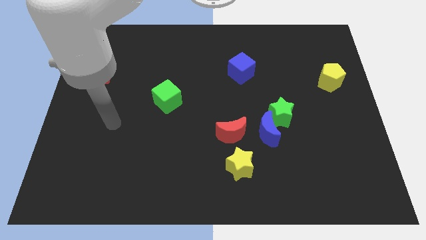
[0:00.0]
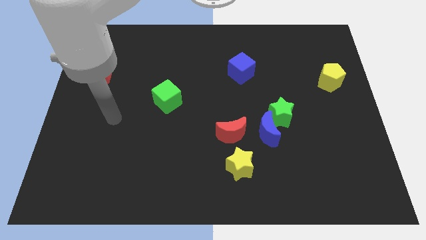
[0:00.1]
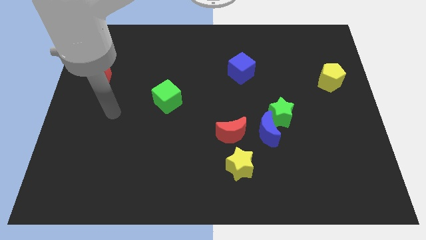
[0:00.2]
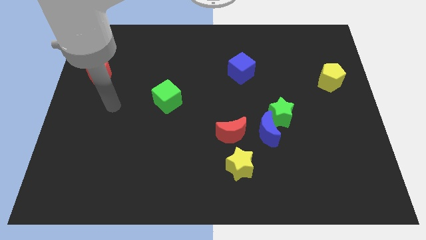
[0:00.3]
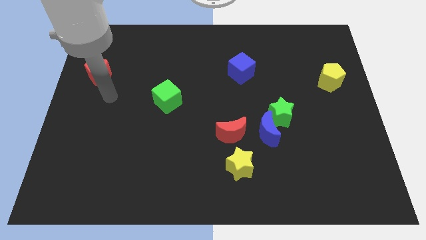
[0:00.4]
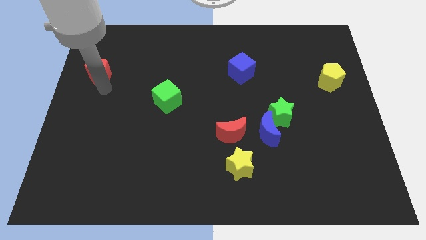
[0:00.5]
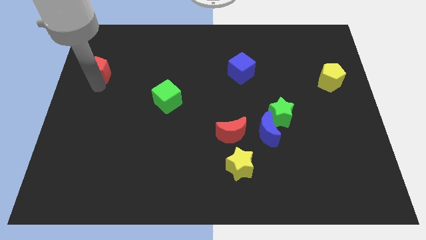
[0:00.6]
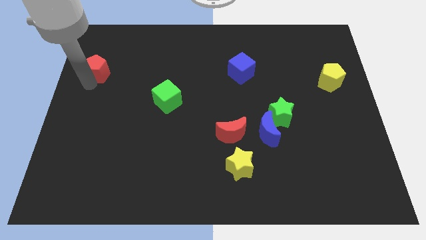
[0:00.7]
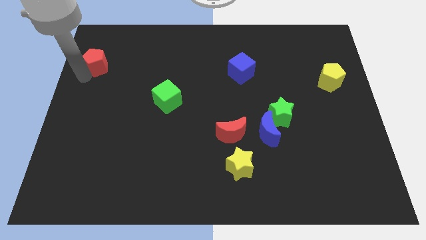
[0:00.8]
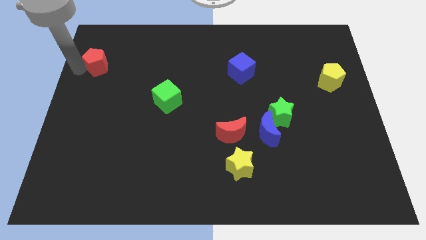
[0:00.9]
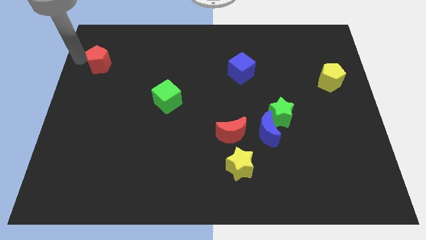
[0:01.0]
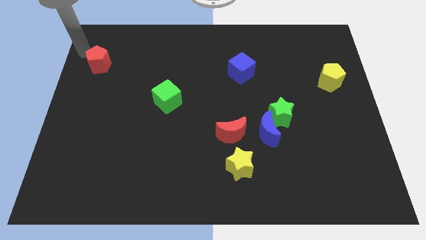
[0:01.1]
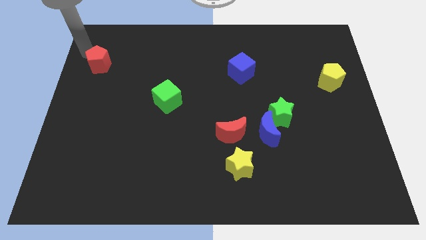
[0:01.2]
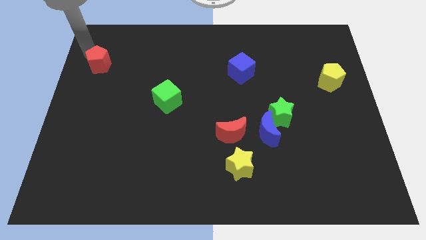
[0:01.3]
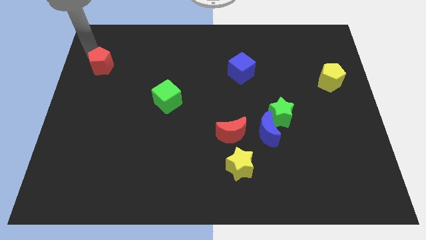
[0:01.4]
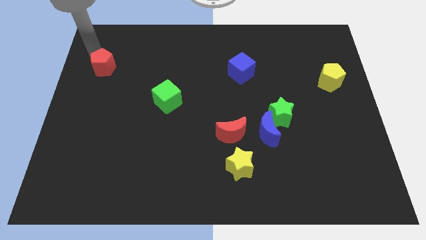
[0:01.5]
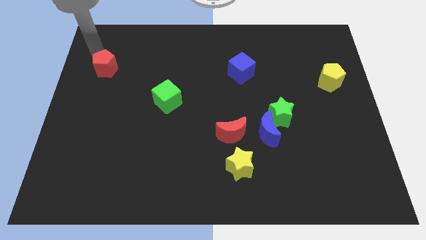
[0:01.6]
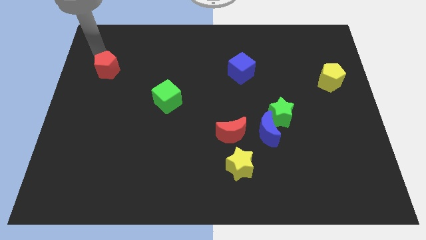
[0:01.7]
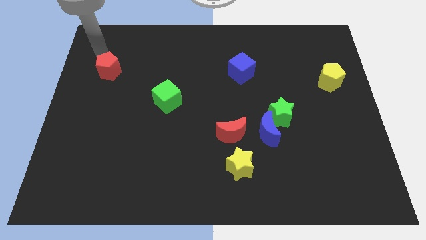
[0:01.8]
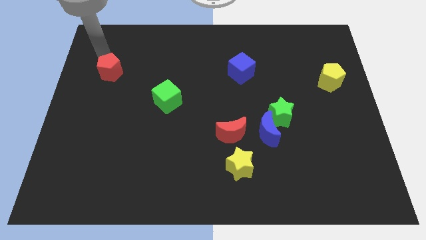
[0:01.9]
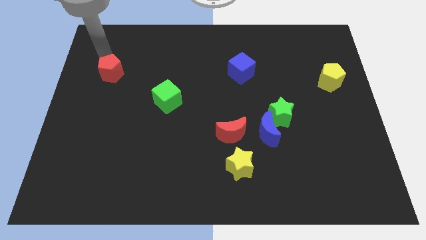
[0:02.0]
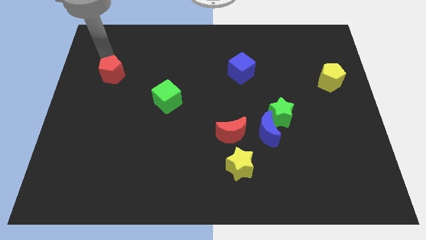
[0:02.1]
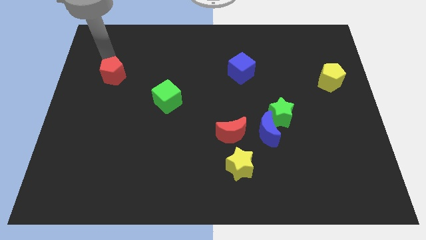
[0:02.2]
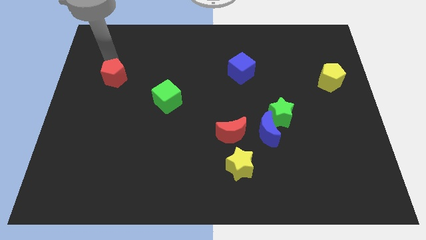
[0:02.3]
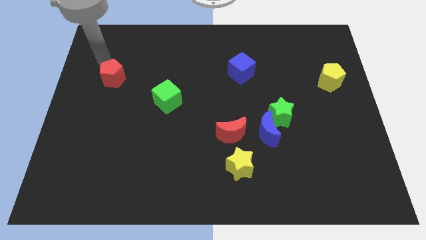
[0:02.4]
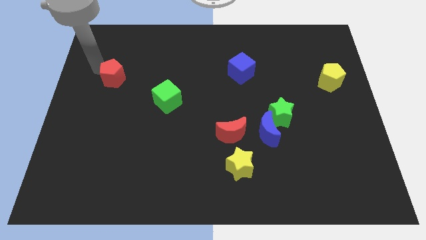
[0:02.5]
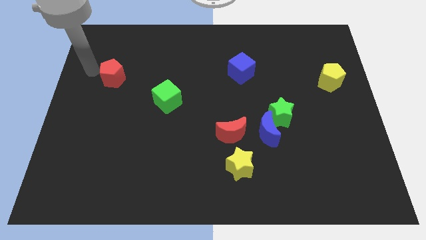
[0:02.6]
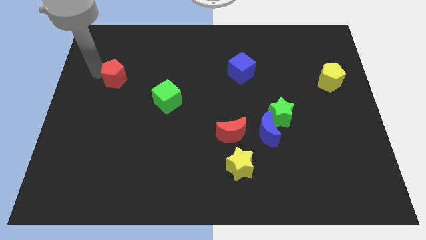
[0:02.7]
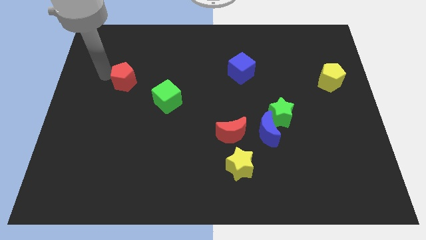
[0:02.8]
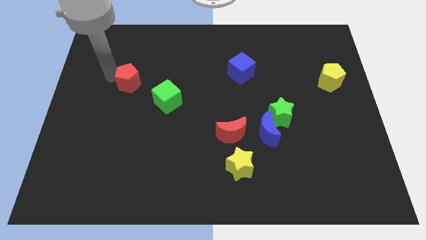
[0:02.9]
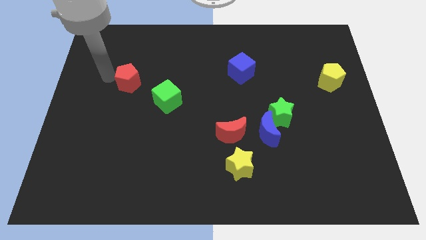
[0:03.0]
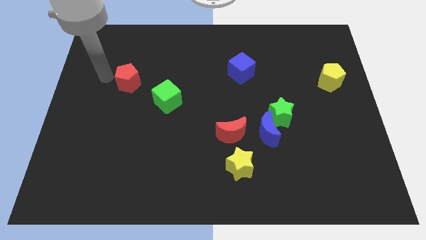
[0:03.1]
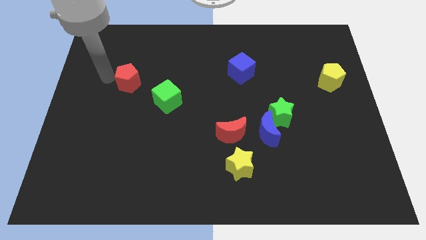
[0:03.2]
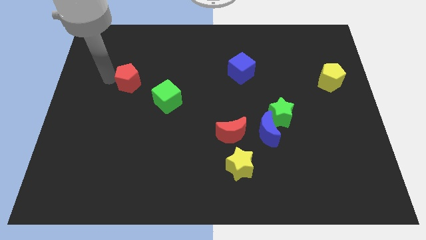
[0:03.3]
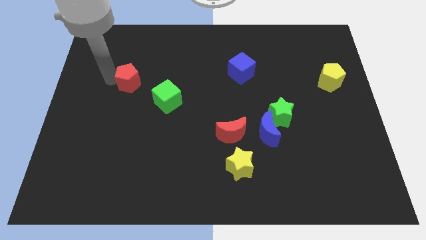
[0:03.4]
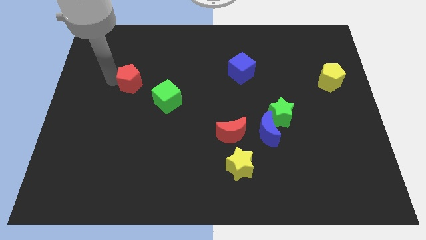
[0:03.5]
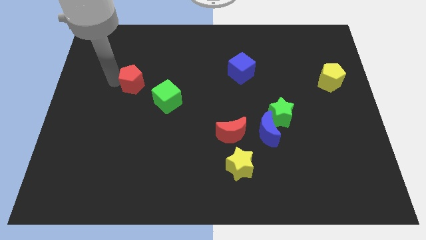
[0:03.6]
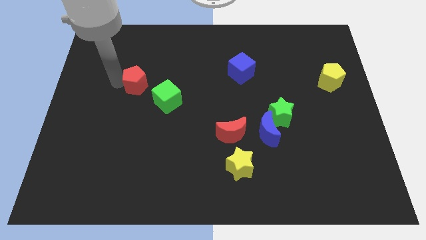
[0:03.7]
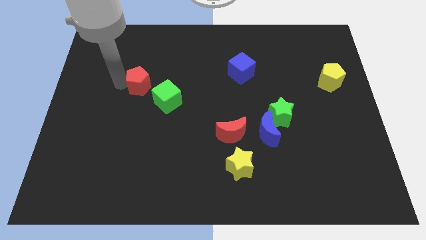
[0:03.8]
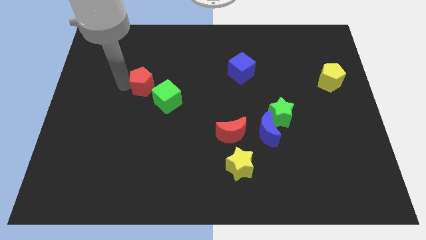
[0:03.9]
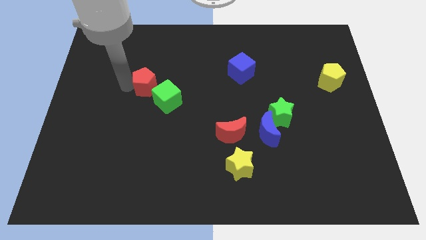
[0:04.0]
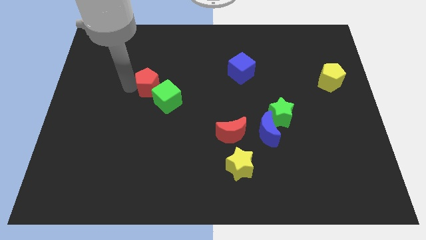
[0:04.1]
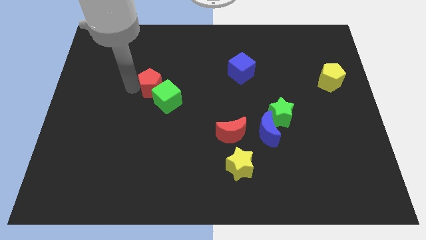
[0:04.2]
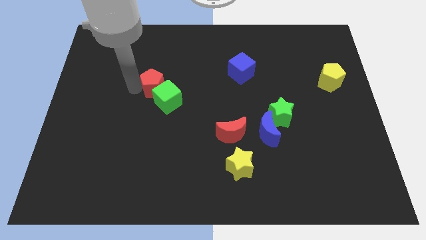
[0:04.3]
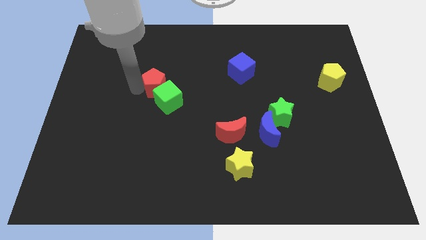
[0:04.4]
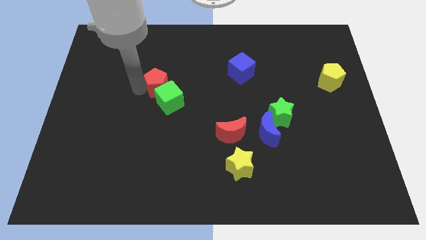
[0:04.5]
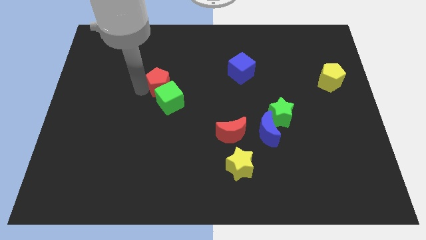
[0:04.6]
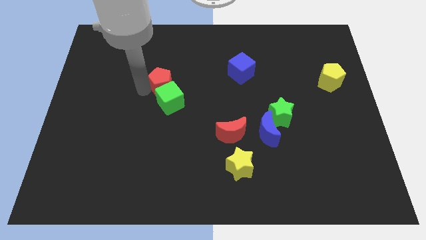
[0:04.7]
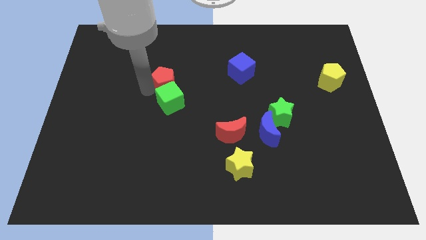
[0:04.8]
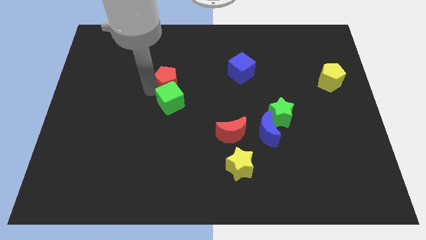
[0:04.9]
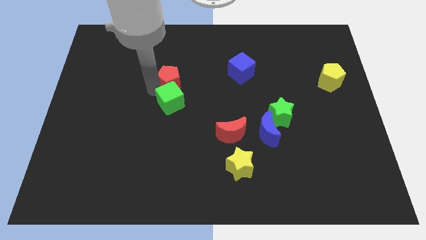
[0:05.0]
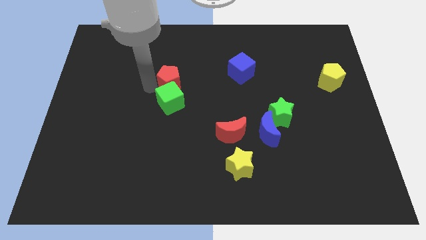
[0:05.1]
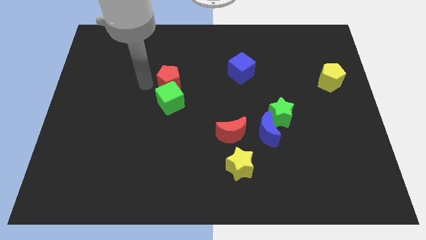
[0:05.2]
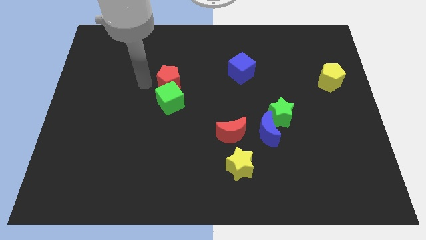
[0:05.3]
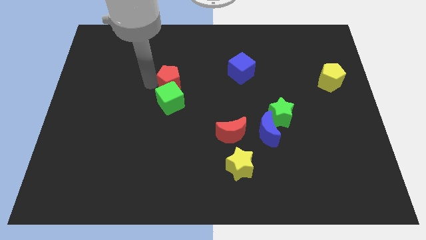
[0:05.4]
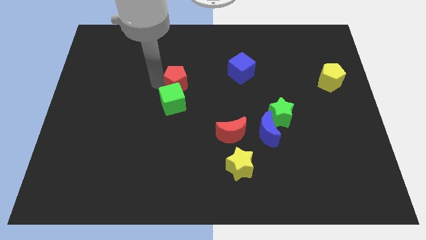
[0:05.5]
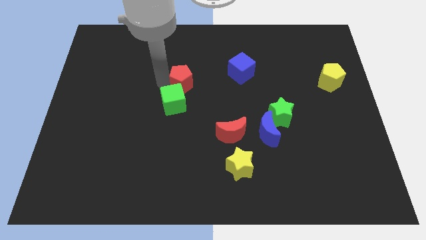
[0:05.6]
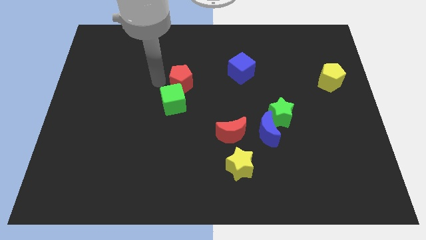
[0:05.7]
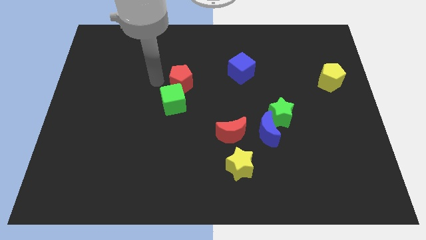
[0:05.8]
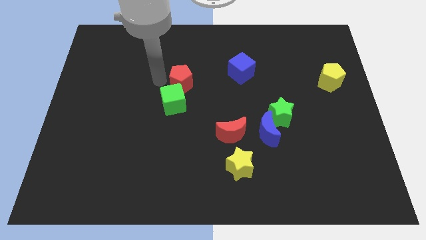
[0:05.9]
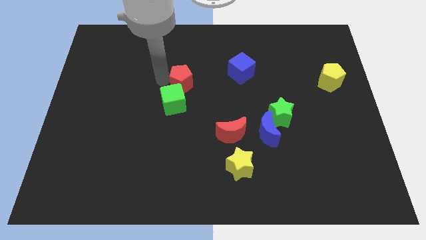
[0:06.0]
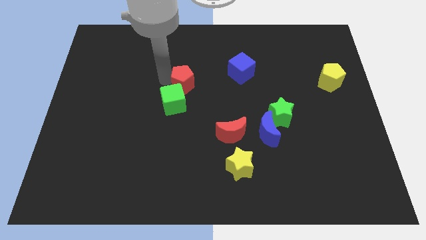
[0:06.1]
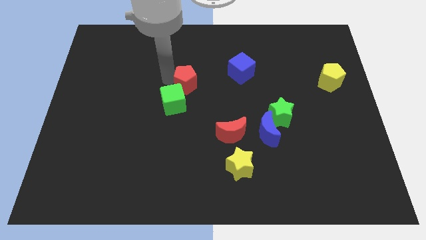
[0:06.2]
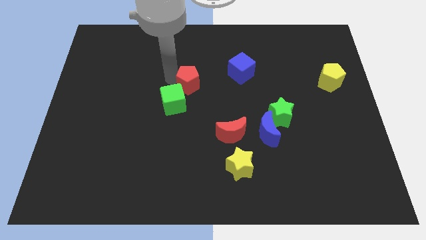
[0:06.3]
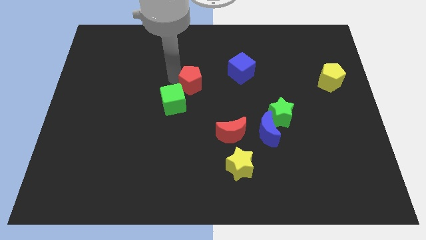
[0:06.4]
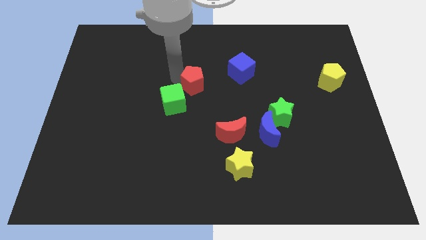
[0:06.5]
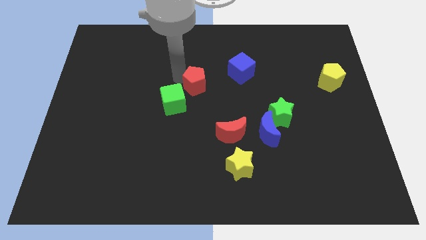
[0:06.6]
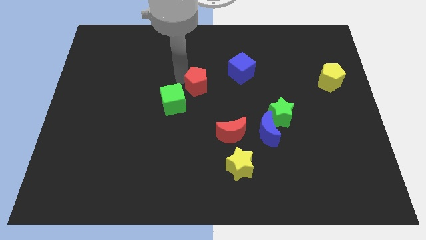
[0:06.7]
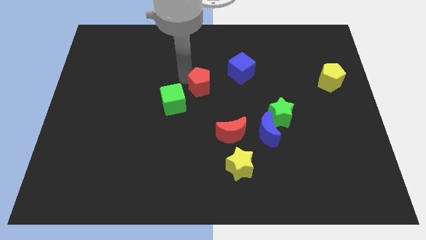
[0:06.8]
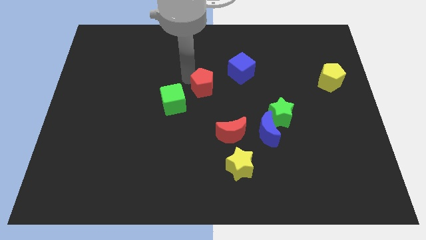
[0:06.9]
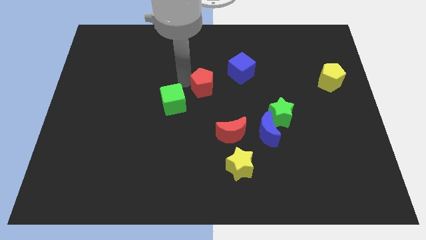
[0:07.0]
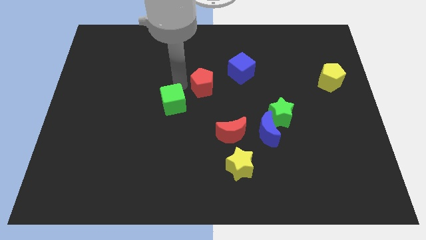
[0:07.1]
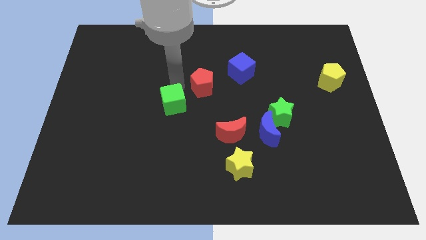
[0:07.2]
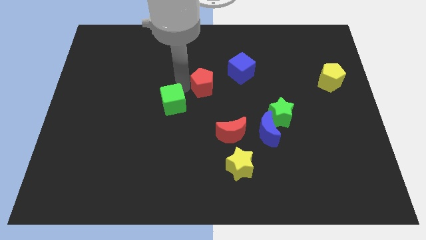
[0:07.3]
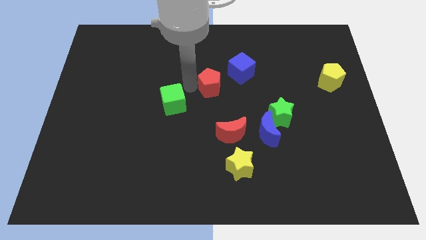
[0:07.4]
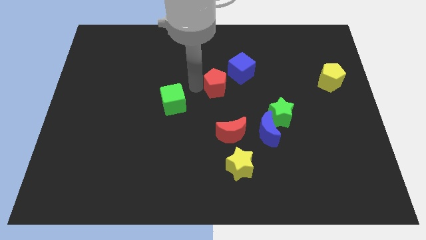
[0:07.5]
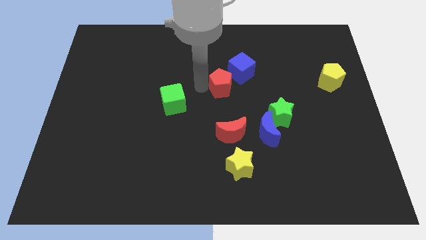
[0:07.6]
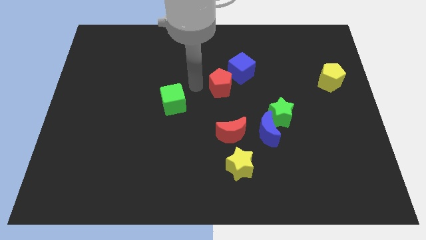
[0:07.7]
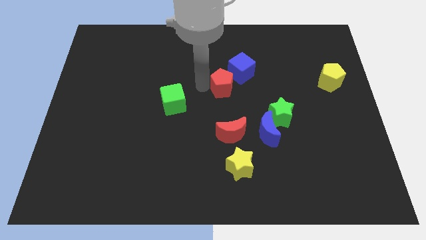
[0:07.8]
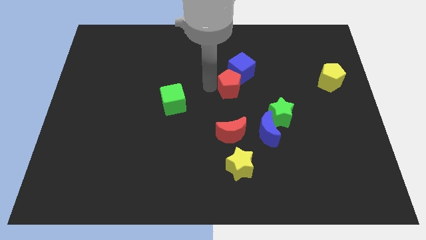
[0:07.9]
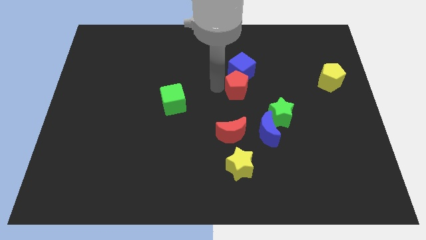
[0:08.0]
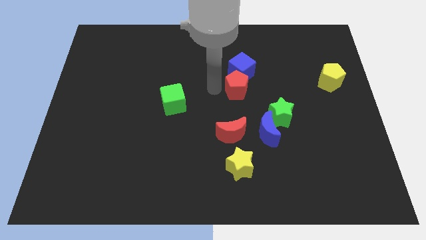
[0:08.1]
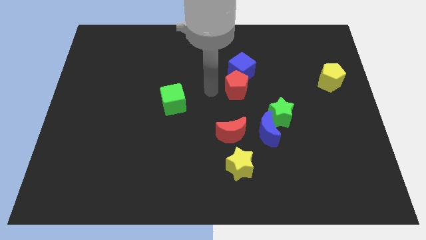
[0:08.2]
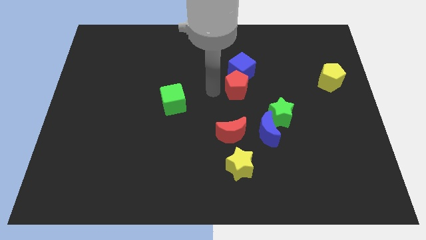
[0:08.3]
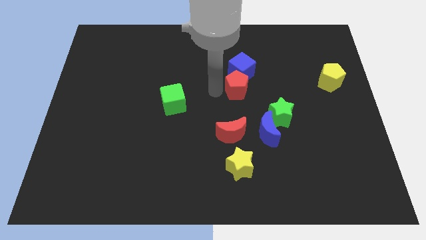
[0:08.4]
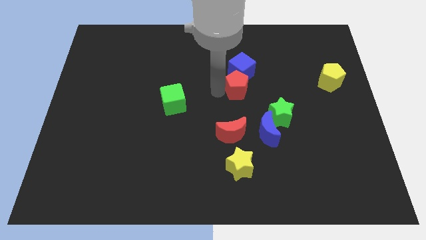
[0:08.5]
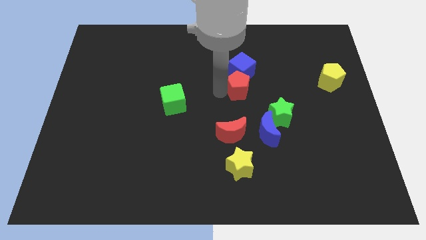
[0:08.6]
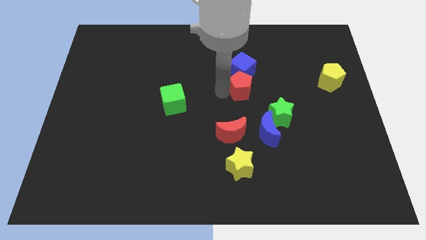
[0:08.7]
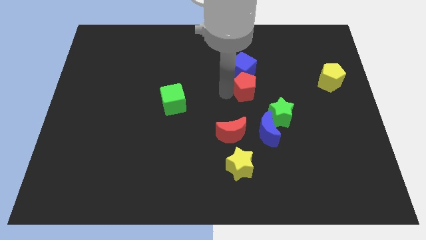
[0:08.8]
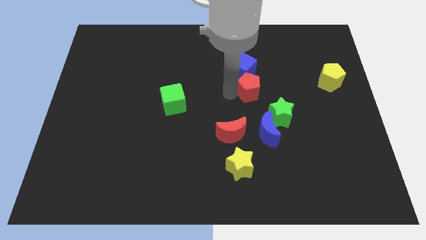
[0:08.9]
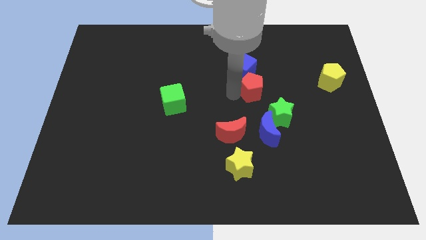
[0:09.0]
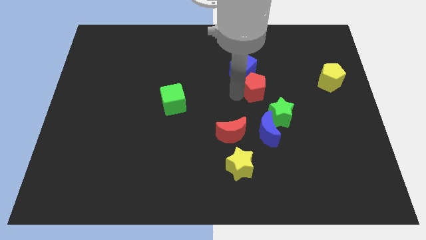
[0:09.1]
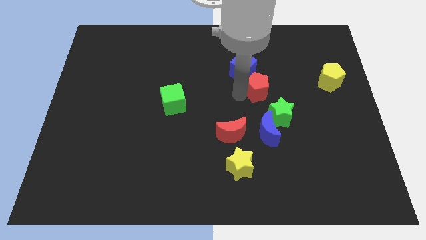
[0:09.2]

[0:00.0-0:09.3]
put the red pentagon above the green star
